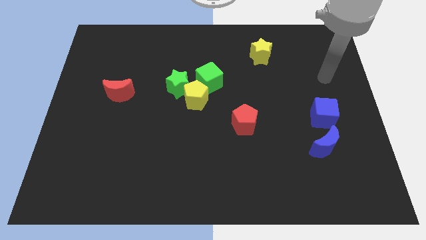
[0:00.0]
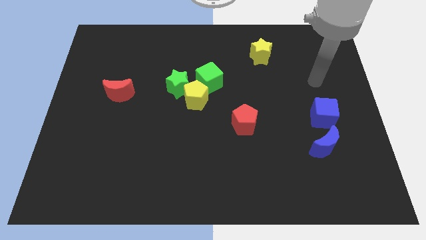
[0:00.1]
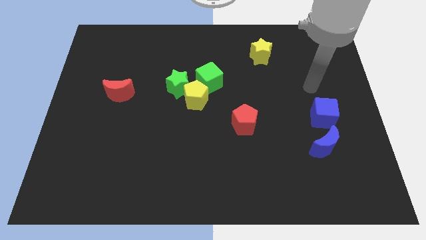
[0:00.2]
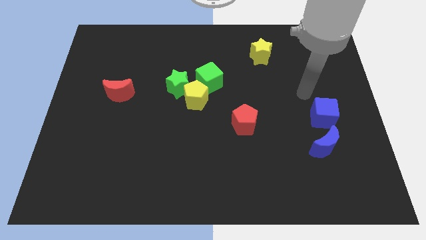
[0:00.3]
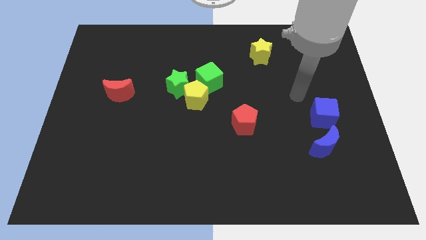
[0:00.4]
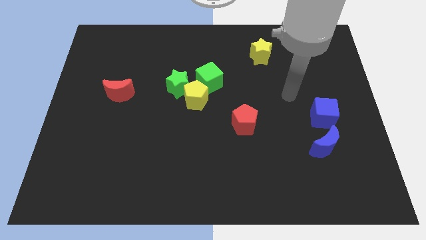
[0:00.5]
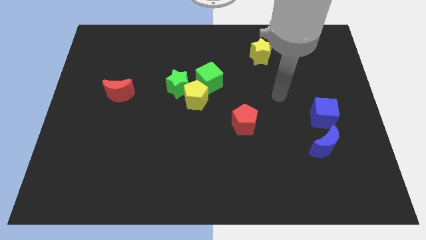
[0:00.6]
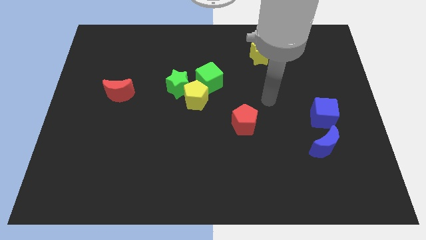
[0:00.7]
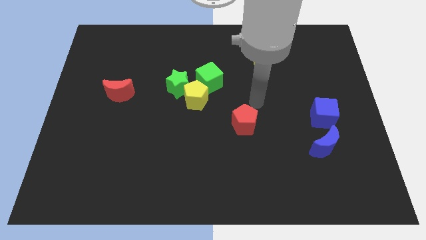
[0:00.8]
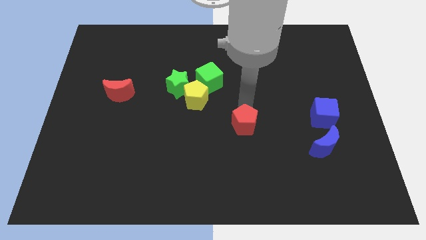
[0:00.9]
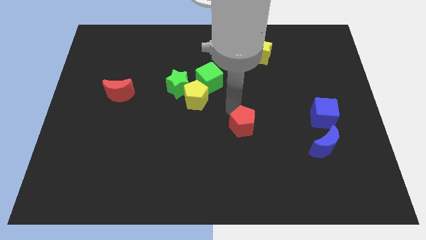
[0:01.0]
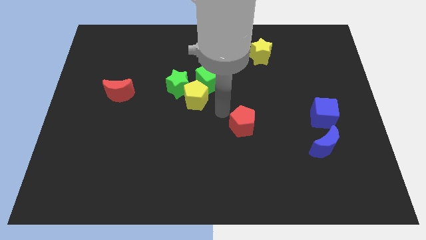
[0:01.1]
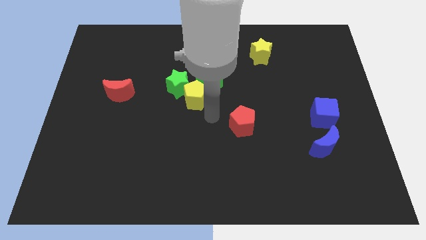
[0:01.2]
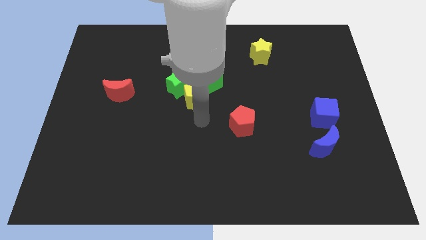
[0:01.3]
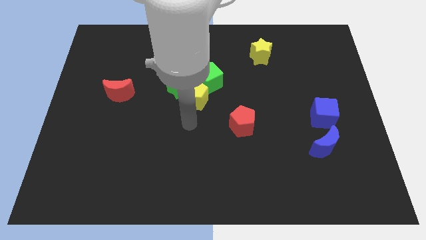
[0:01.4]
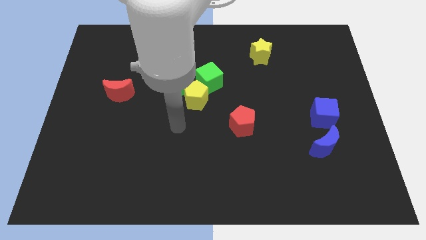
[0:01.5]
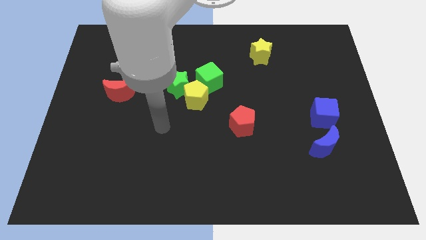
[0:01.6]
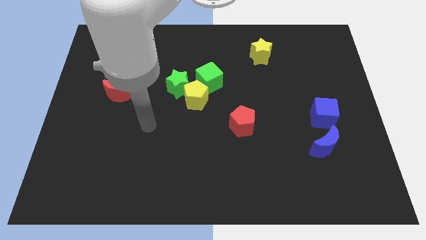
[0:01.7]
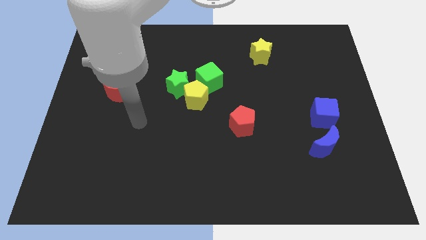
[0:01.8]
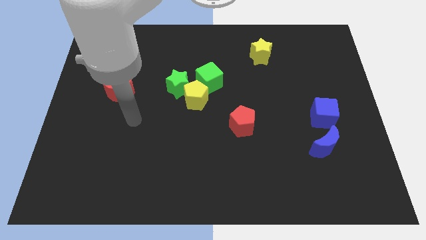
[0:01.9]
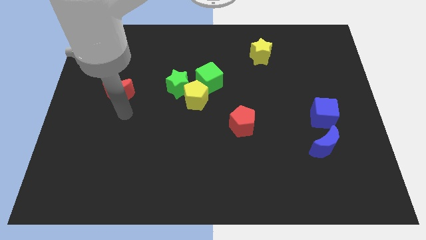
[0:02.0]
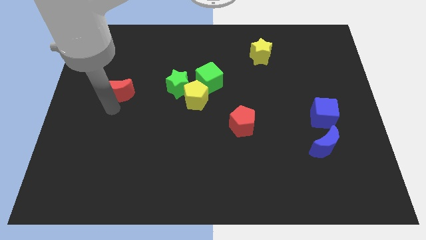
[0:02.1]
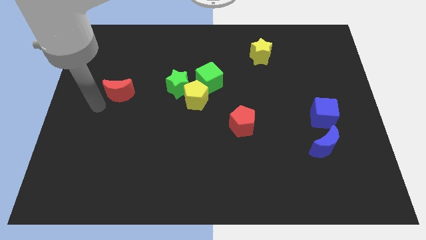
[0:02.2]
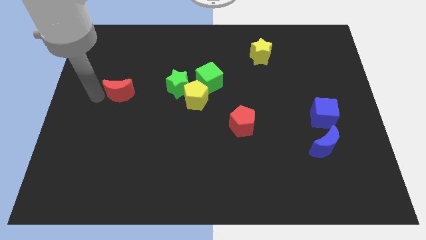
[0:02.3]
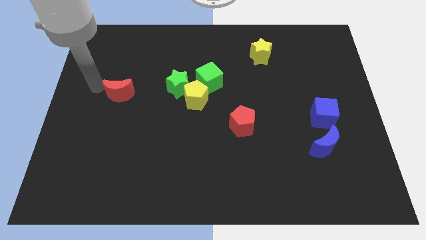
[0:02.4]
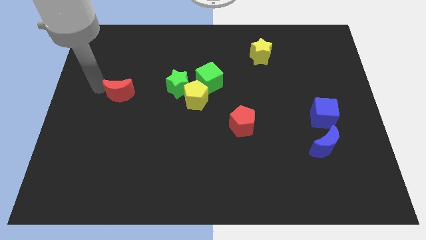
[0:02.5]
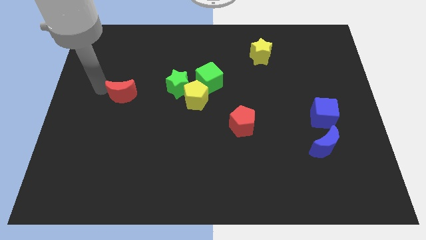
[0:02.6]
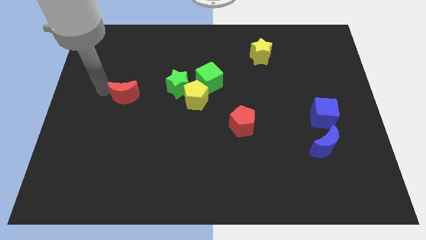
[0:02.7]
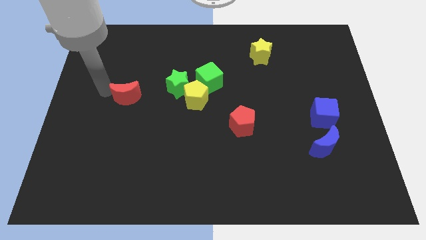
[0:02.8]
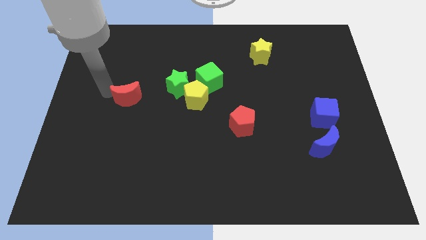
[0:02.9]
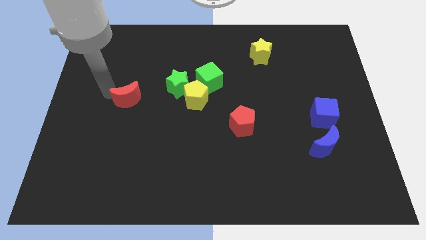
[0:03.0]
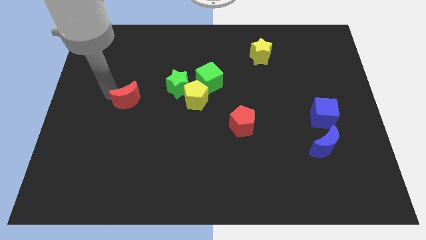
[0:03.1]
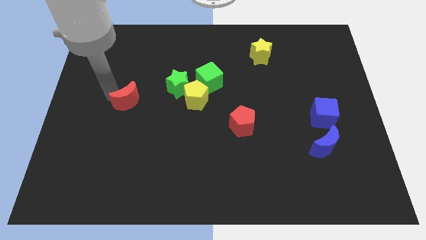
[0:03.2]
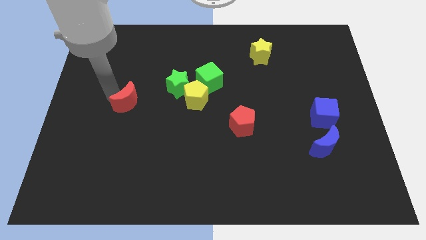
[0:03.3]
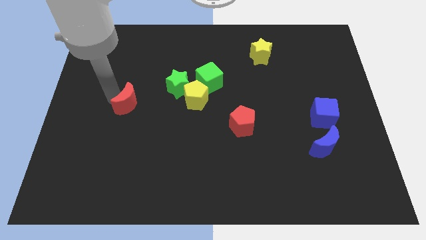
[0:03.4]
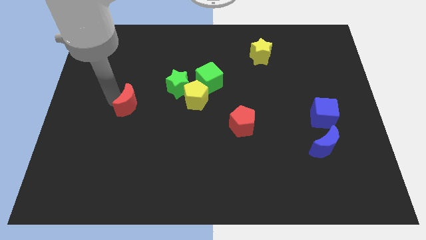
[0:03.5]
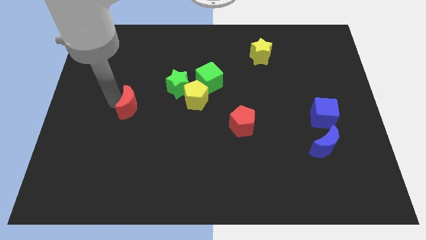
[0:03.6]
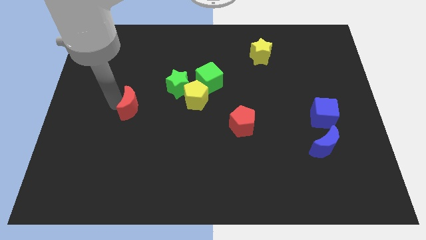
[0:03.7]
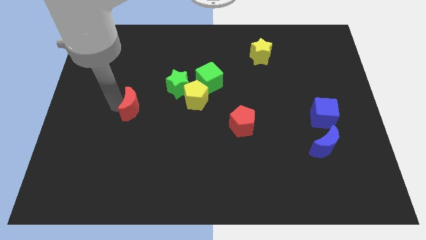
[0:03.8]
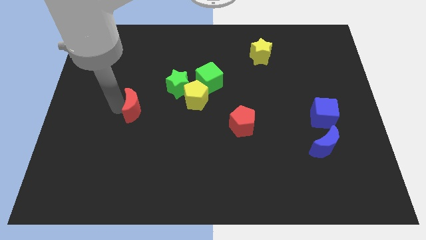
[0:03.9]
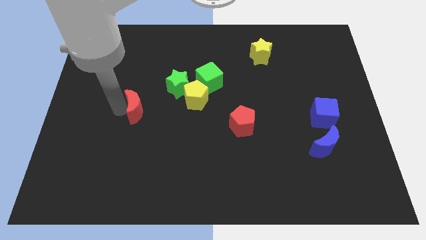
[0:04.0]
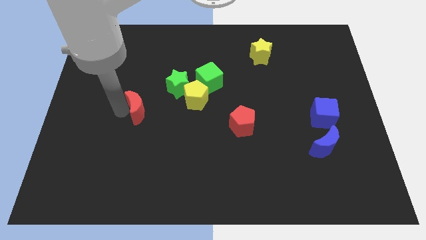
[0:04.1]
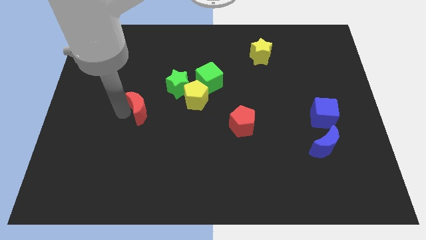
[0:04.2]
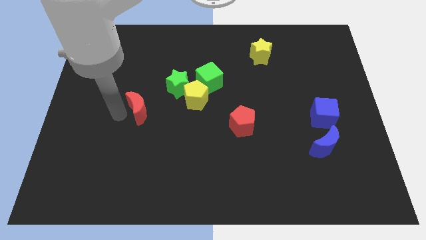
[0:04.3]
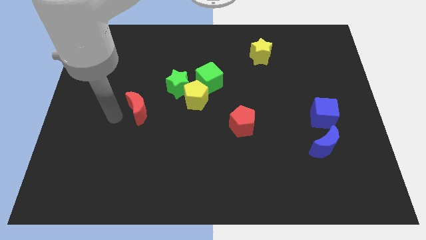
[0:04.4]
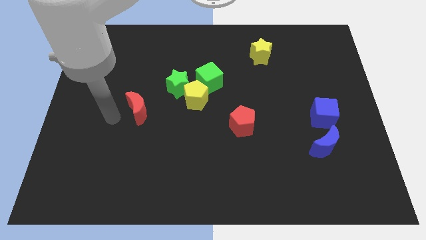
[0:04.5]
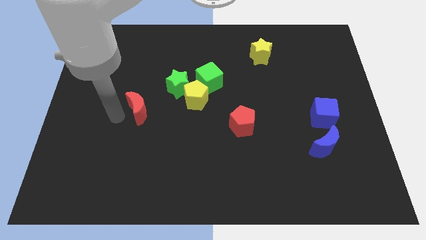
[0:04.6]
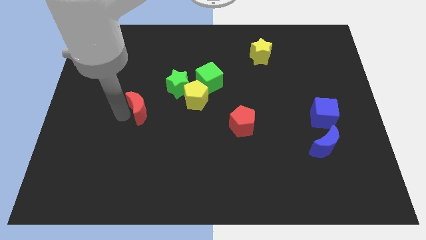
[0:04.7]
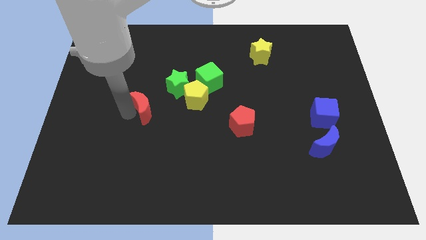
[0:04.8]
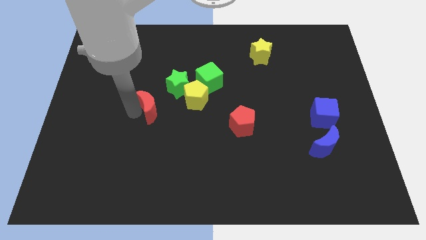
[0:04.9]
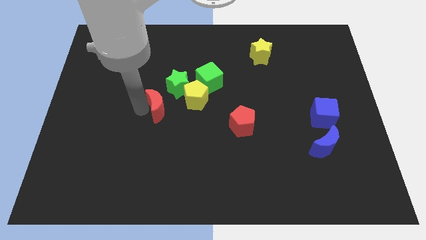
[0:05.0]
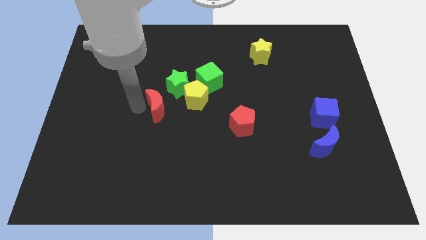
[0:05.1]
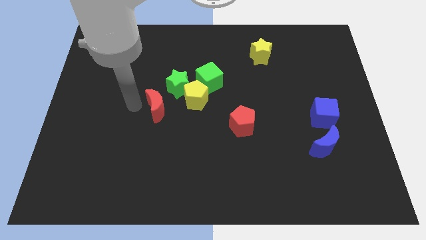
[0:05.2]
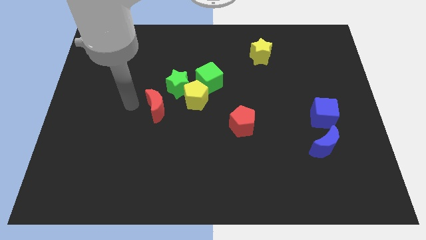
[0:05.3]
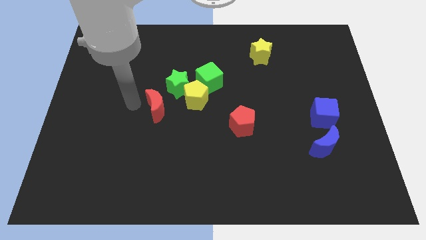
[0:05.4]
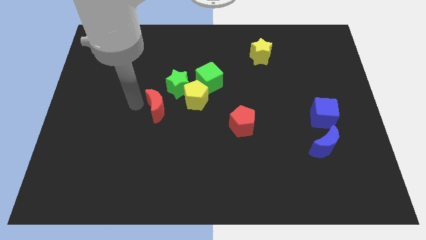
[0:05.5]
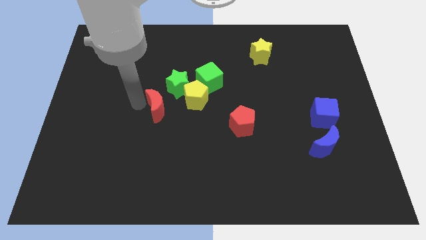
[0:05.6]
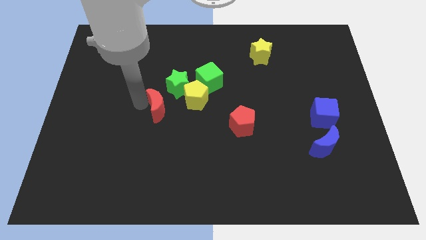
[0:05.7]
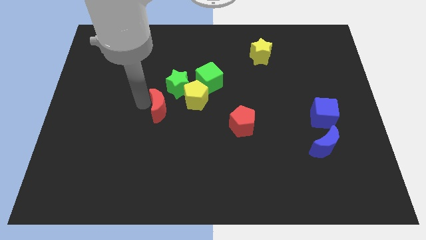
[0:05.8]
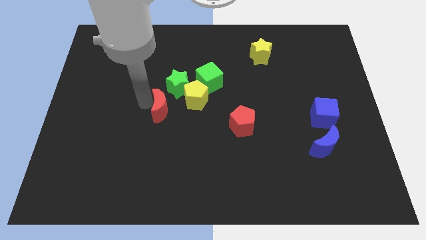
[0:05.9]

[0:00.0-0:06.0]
move the red moon to the middle of the board

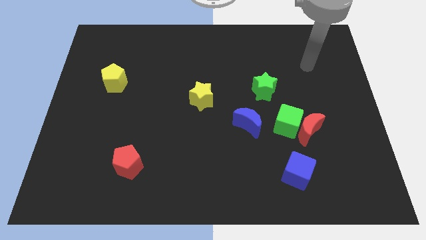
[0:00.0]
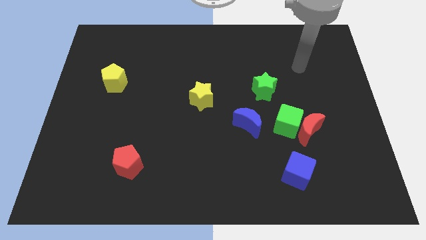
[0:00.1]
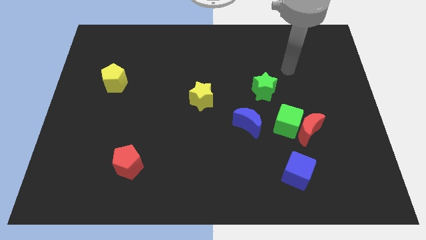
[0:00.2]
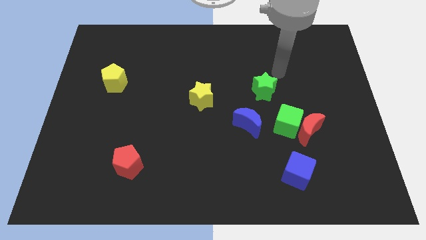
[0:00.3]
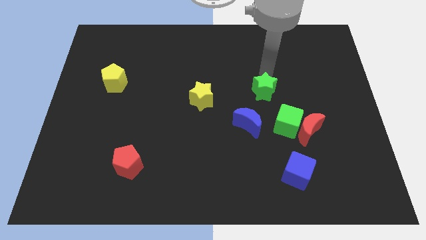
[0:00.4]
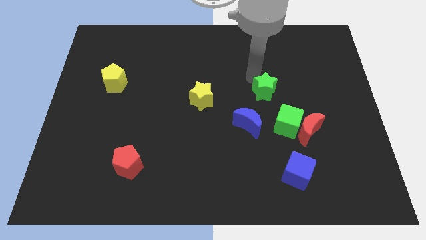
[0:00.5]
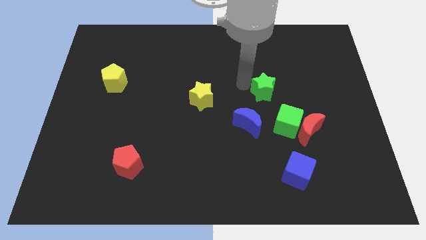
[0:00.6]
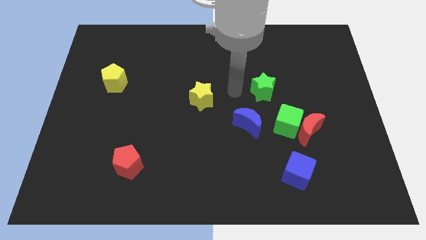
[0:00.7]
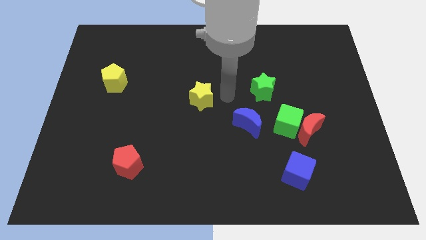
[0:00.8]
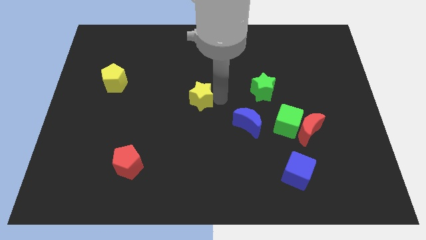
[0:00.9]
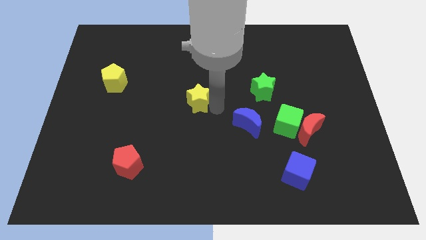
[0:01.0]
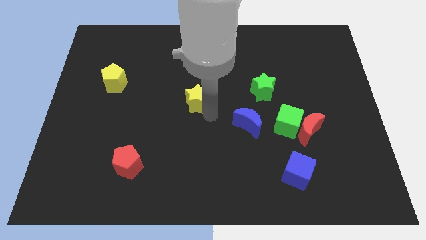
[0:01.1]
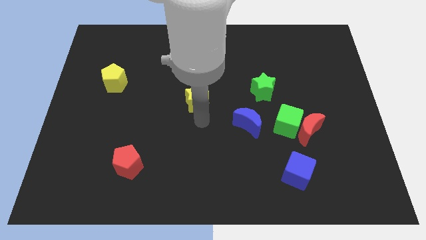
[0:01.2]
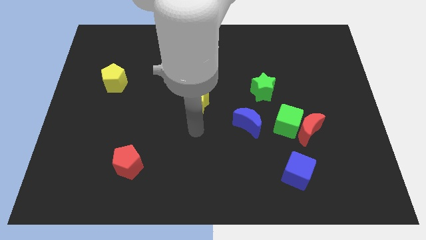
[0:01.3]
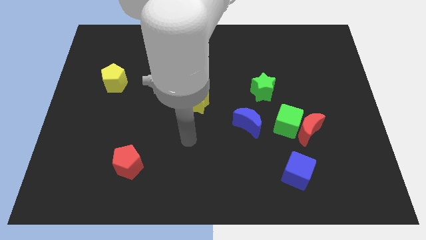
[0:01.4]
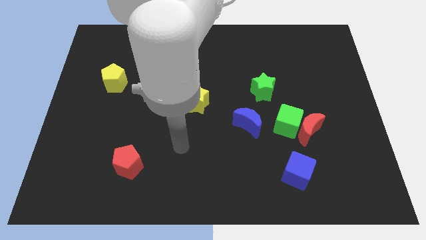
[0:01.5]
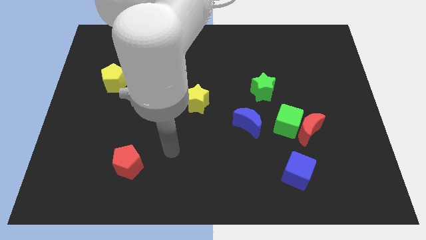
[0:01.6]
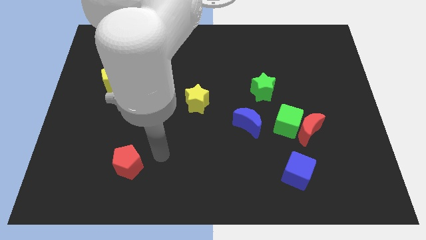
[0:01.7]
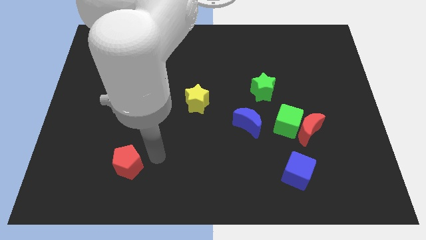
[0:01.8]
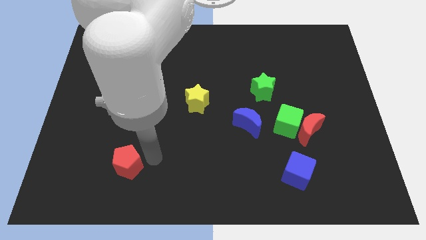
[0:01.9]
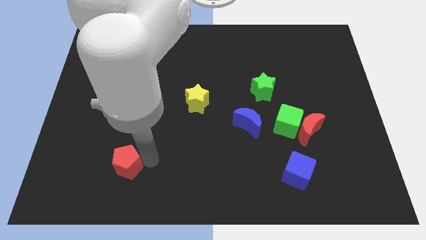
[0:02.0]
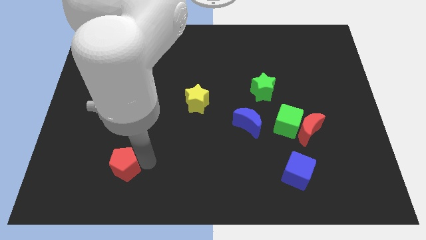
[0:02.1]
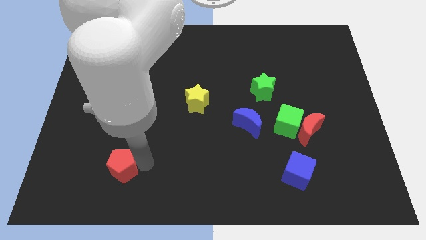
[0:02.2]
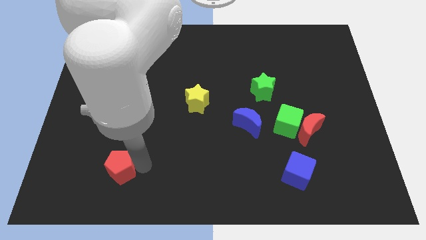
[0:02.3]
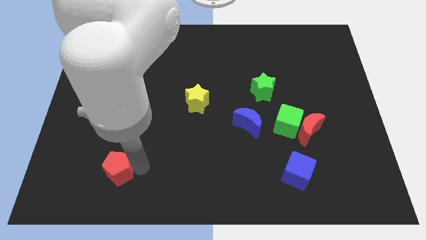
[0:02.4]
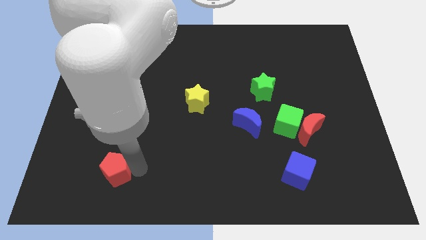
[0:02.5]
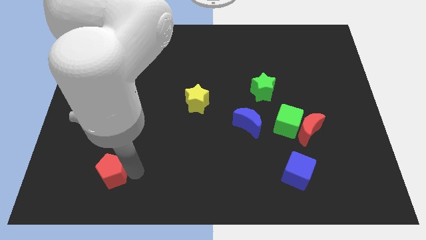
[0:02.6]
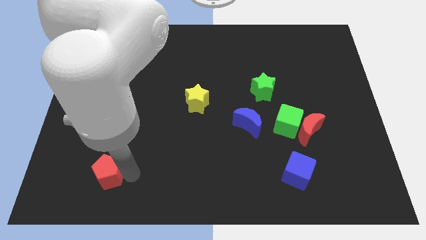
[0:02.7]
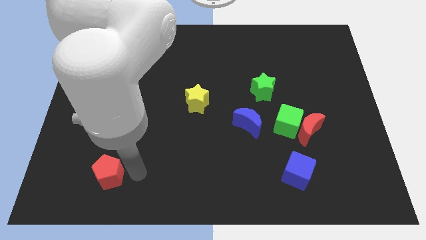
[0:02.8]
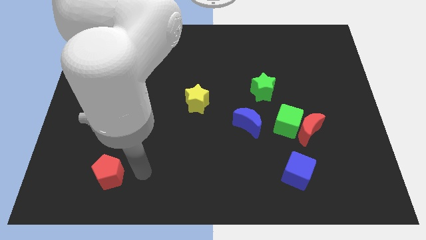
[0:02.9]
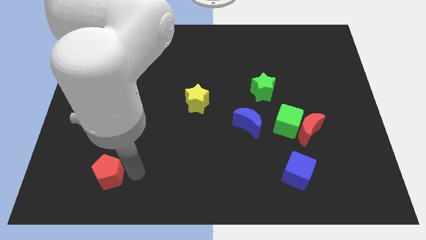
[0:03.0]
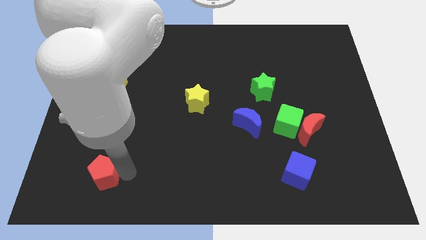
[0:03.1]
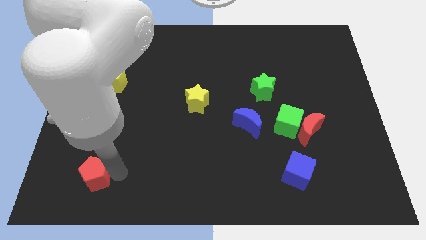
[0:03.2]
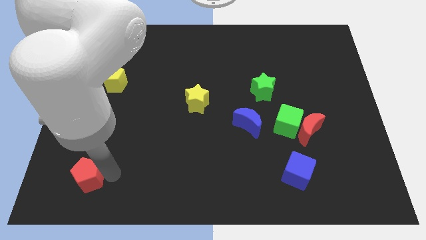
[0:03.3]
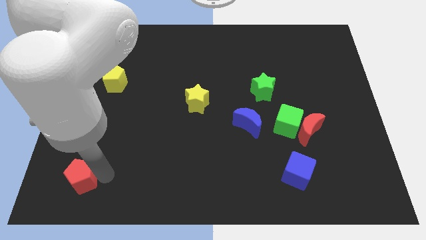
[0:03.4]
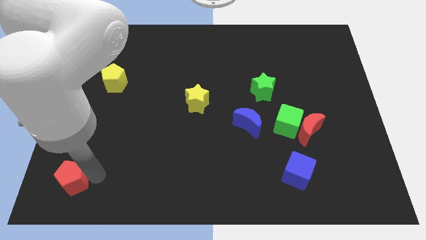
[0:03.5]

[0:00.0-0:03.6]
move the red pentagon to the bottom left corner
